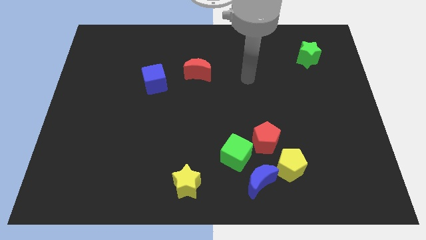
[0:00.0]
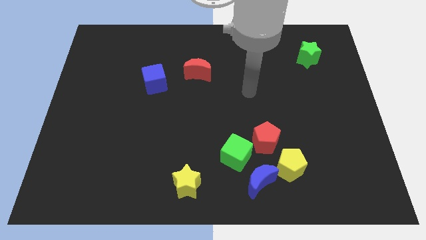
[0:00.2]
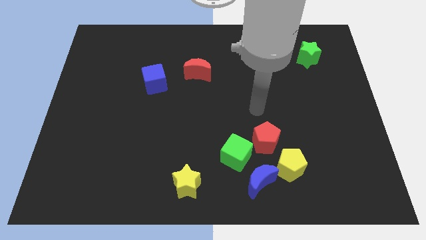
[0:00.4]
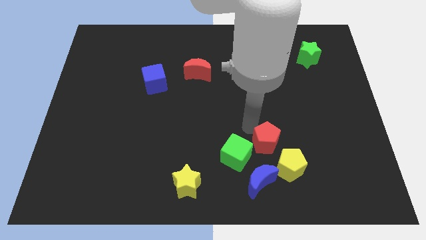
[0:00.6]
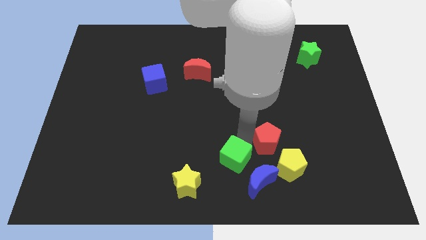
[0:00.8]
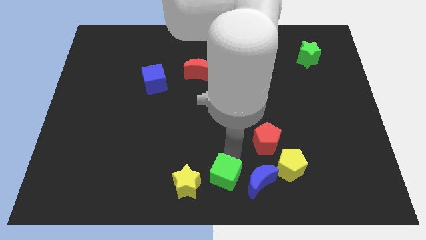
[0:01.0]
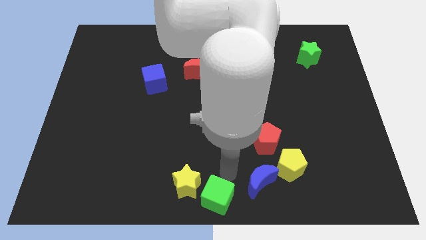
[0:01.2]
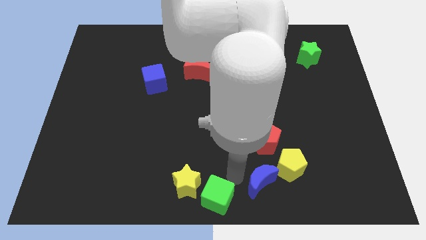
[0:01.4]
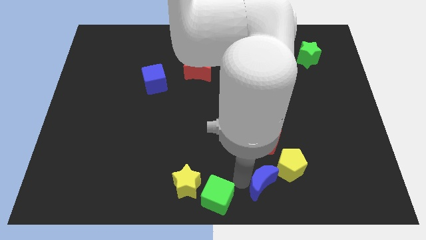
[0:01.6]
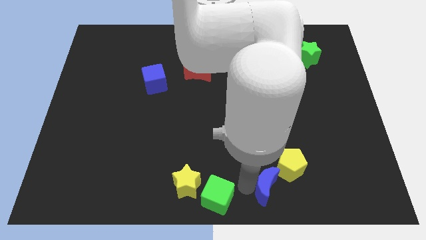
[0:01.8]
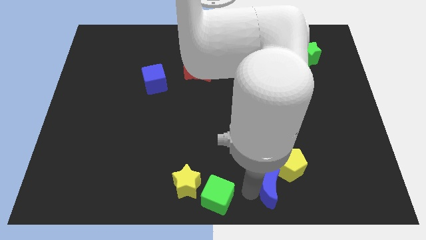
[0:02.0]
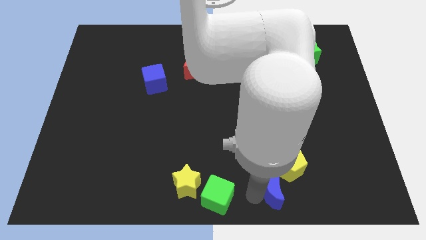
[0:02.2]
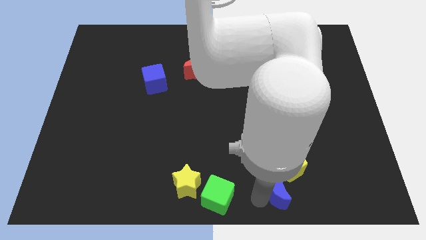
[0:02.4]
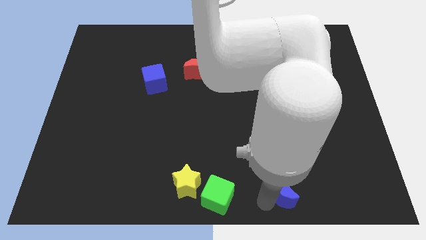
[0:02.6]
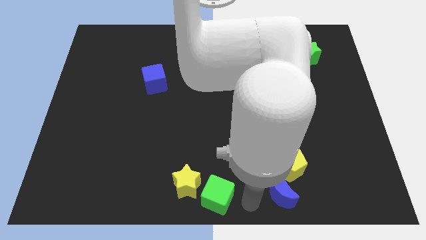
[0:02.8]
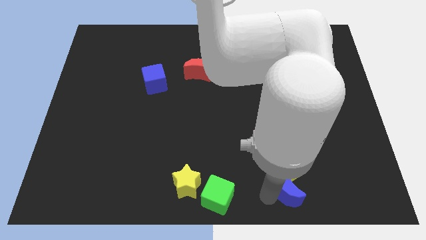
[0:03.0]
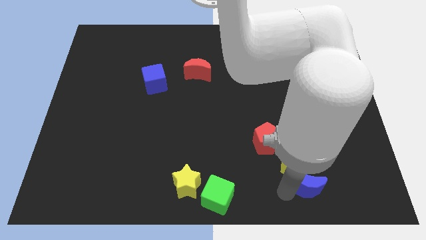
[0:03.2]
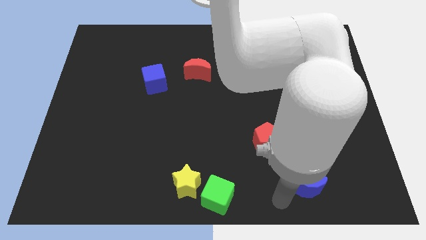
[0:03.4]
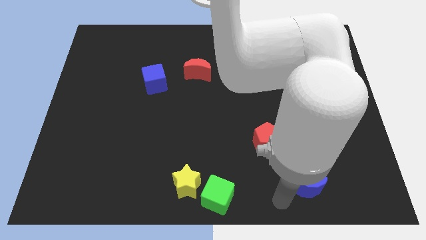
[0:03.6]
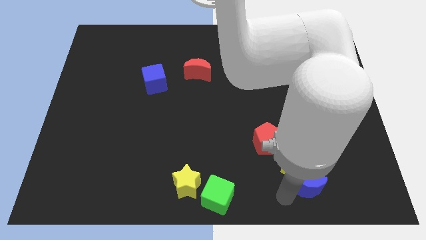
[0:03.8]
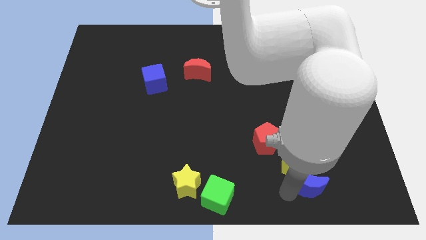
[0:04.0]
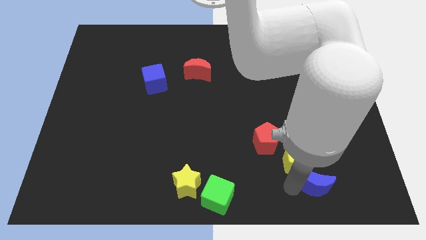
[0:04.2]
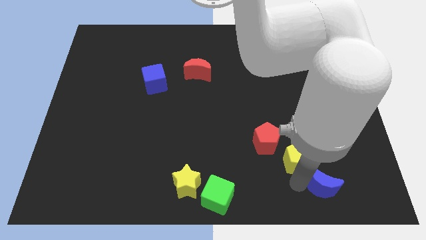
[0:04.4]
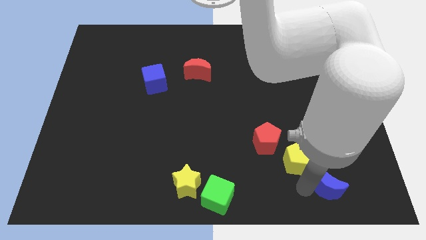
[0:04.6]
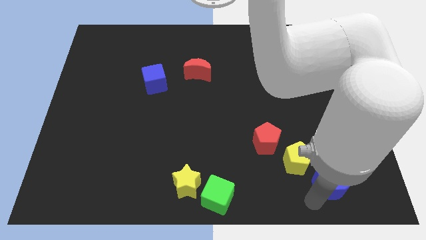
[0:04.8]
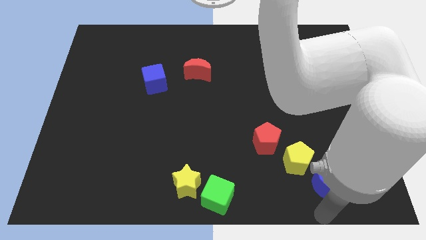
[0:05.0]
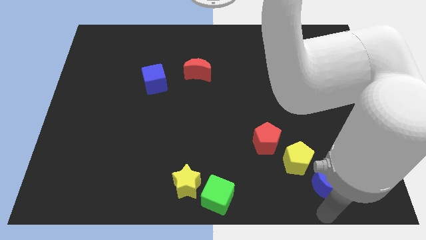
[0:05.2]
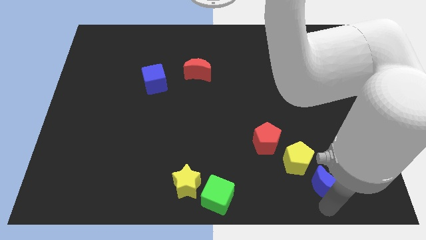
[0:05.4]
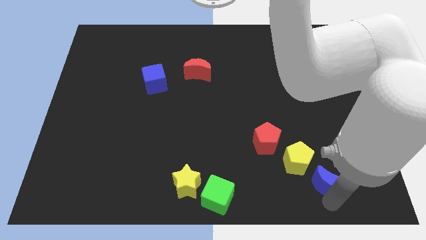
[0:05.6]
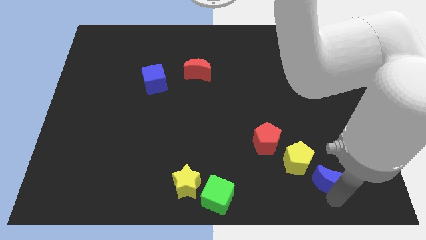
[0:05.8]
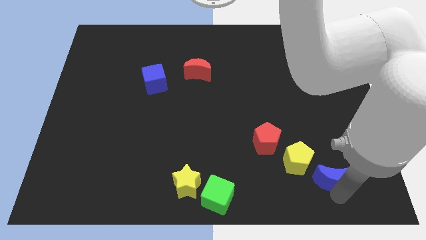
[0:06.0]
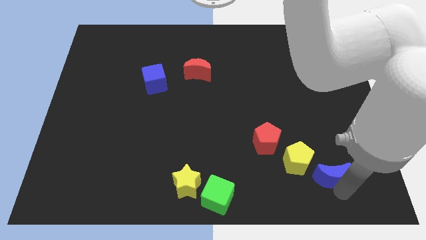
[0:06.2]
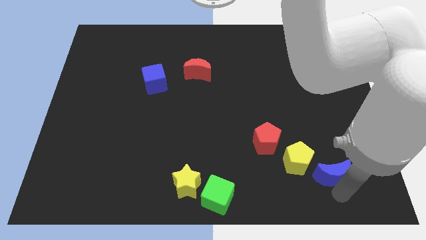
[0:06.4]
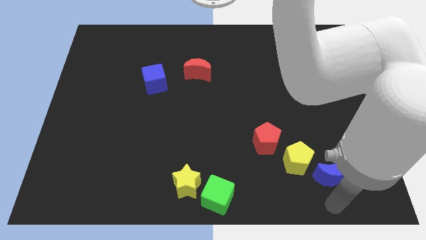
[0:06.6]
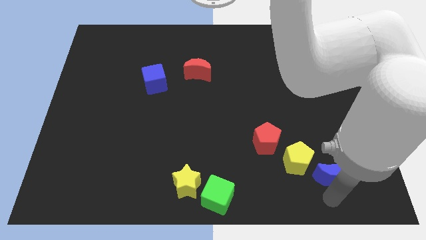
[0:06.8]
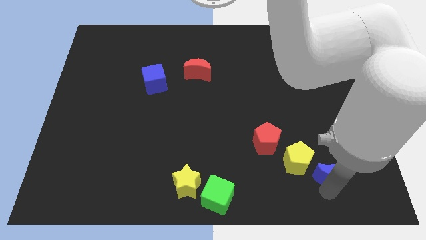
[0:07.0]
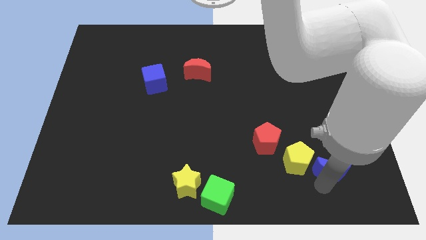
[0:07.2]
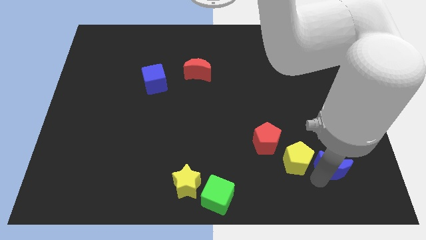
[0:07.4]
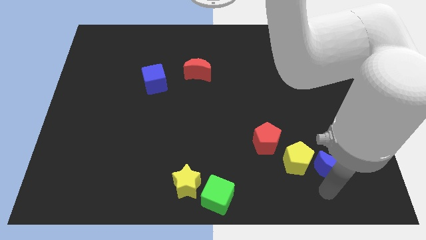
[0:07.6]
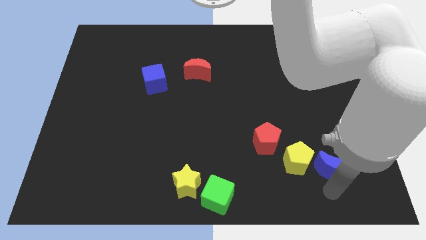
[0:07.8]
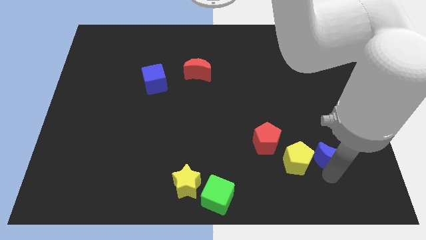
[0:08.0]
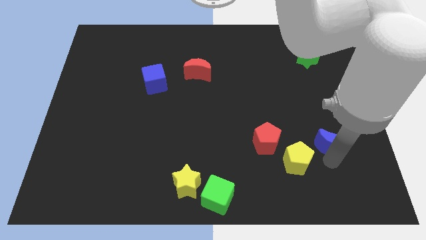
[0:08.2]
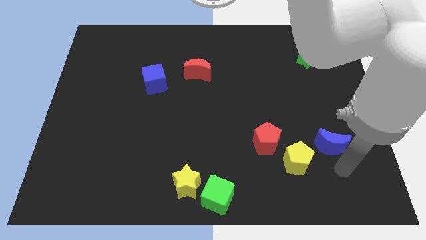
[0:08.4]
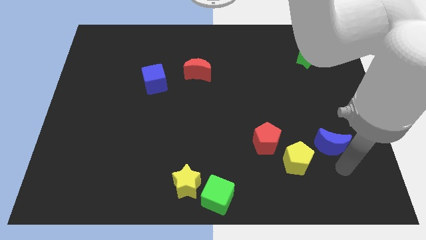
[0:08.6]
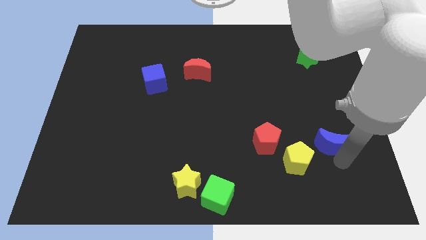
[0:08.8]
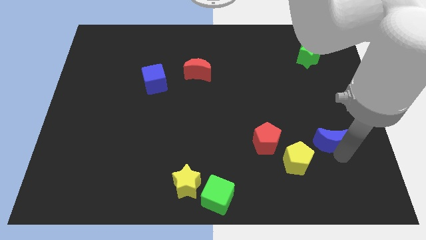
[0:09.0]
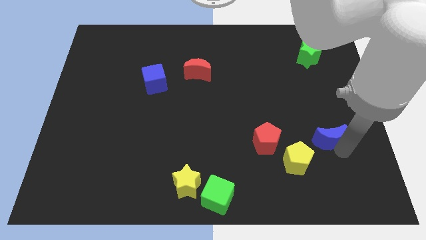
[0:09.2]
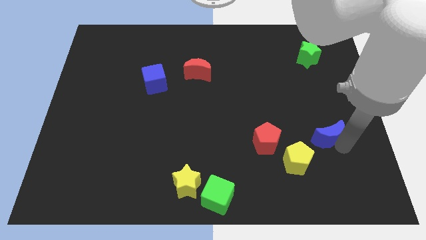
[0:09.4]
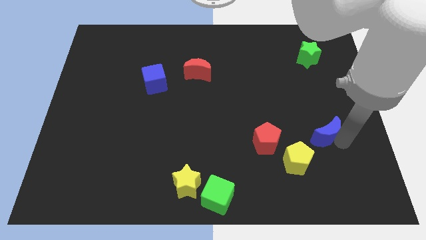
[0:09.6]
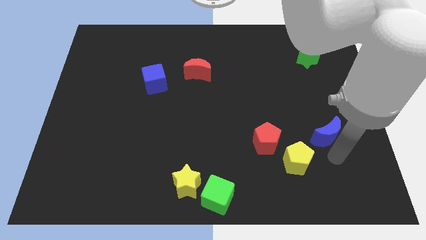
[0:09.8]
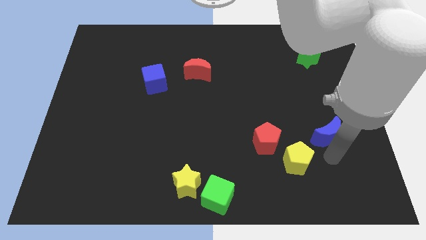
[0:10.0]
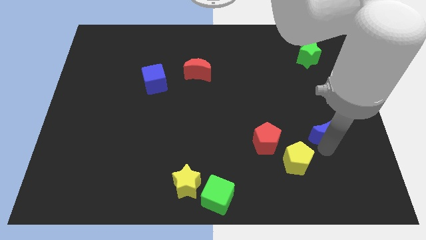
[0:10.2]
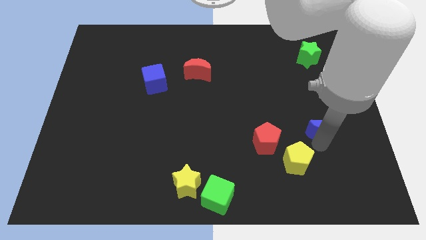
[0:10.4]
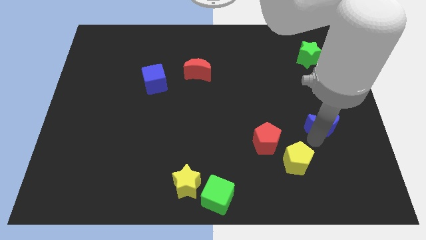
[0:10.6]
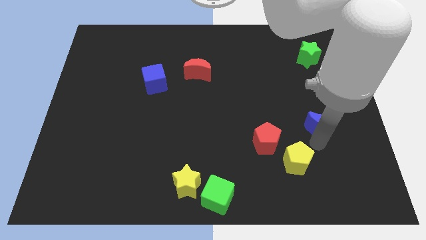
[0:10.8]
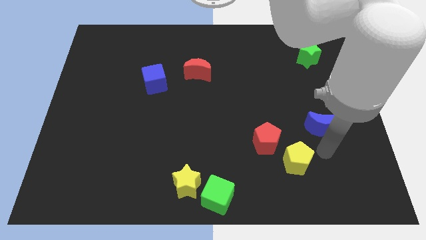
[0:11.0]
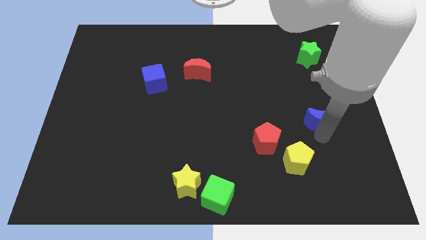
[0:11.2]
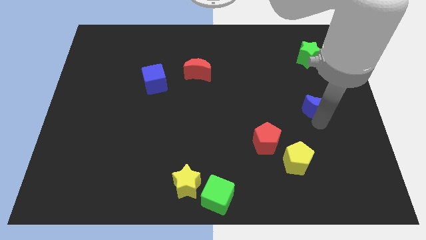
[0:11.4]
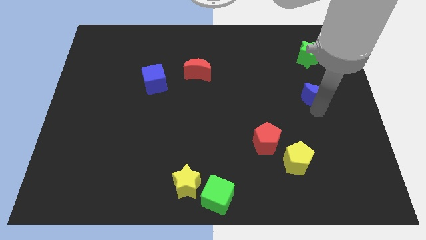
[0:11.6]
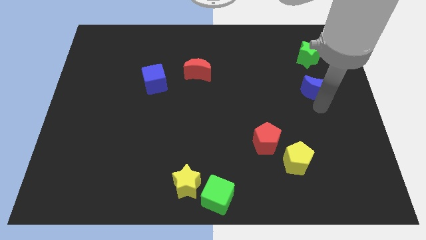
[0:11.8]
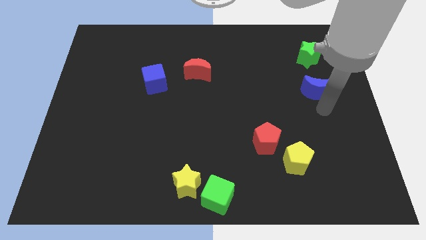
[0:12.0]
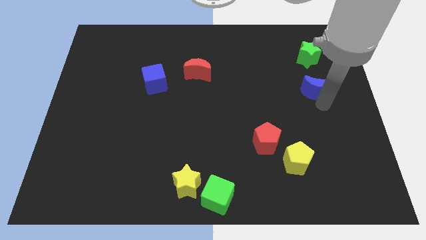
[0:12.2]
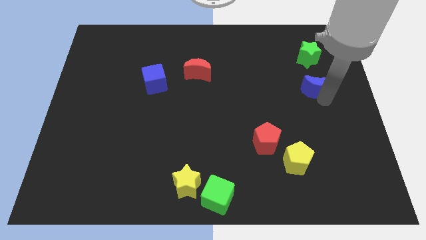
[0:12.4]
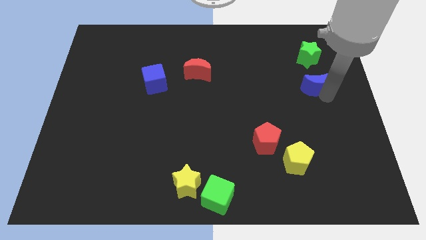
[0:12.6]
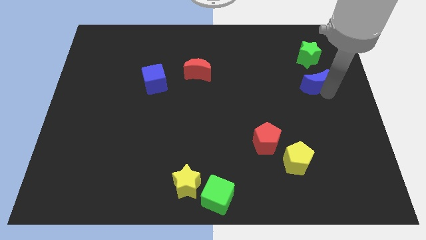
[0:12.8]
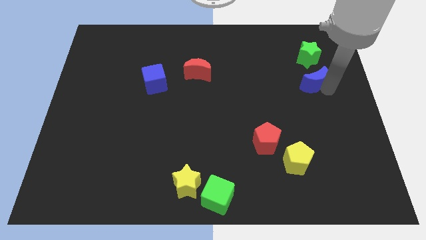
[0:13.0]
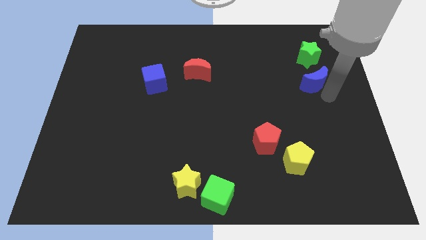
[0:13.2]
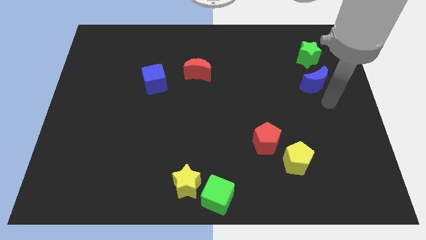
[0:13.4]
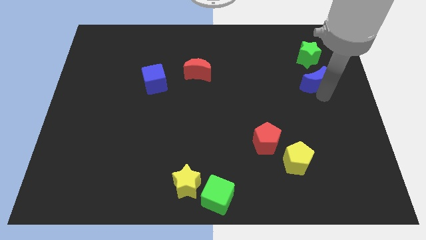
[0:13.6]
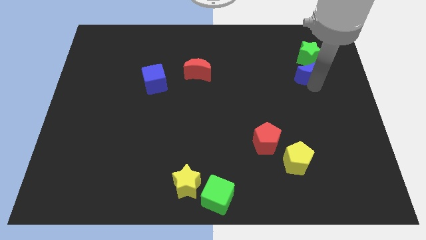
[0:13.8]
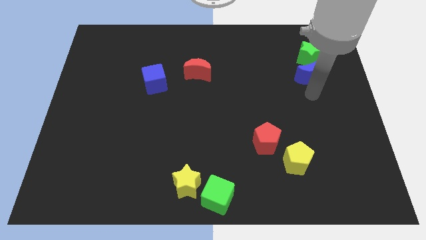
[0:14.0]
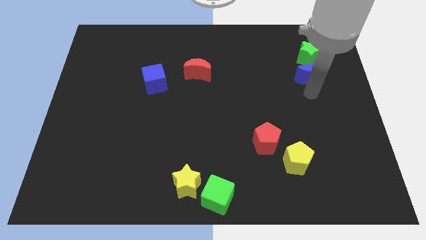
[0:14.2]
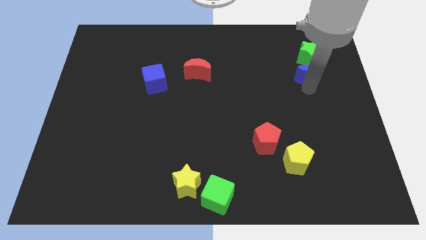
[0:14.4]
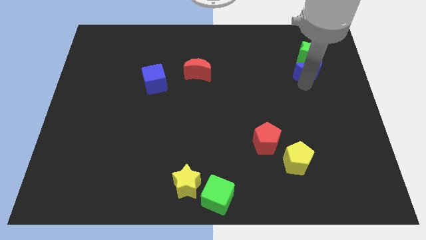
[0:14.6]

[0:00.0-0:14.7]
slide the blue moon next to the green star
